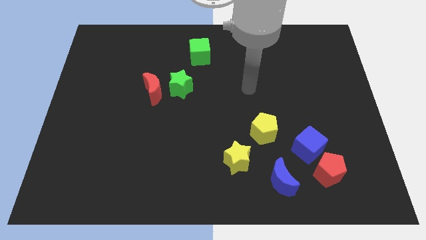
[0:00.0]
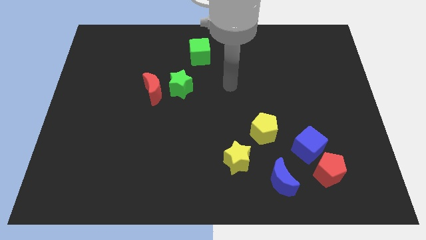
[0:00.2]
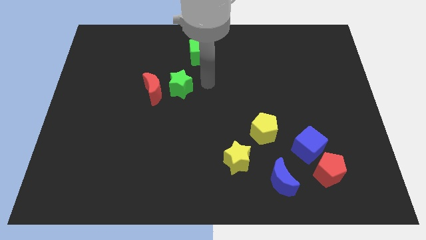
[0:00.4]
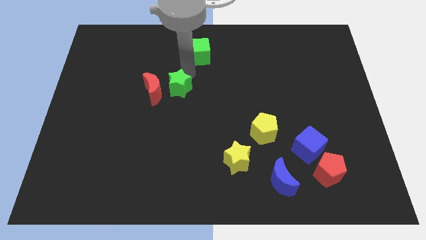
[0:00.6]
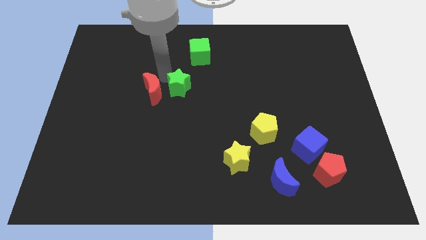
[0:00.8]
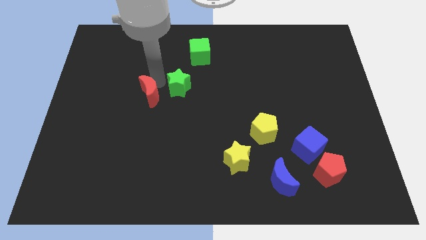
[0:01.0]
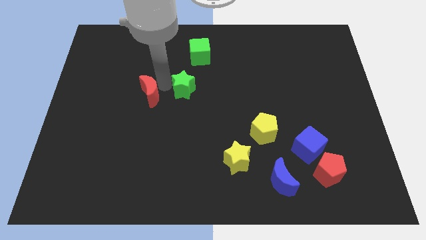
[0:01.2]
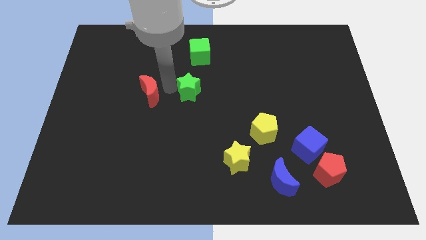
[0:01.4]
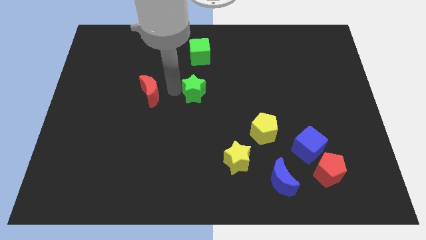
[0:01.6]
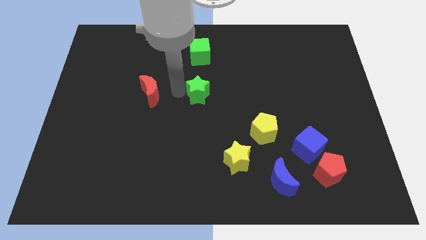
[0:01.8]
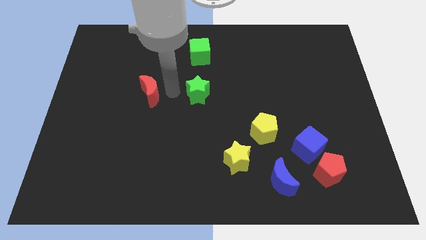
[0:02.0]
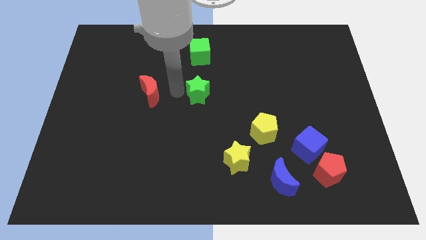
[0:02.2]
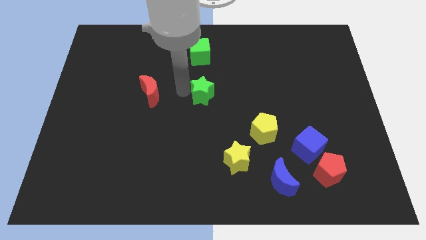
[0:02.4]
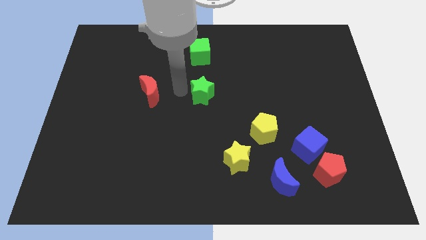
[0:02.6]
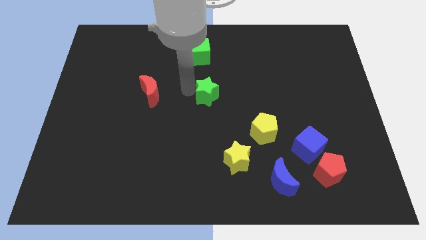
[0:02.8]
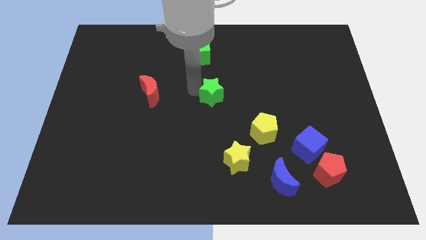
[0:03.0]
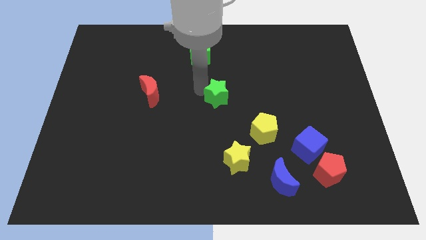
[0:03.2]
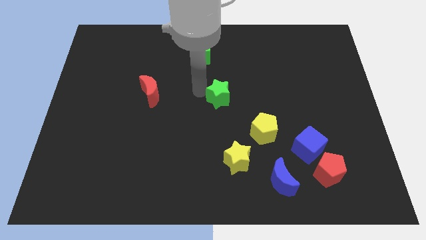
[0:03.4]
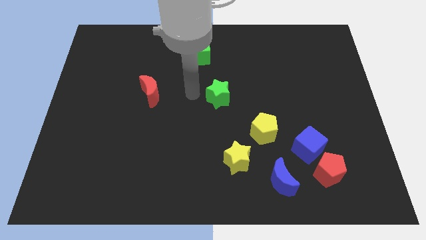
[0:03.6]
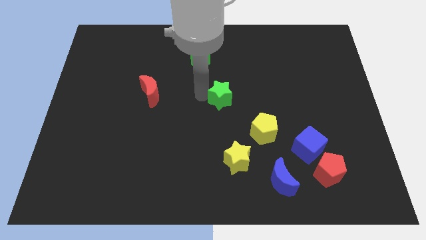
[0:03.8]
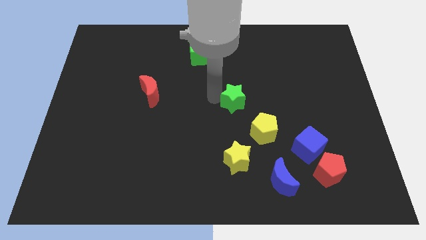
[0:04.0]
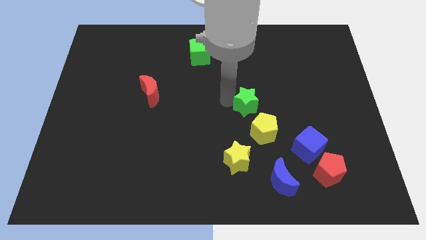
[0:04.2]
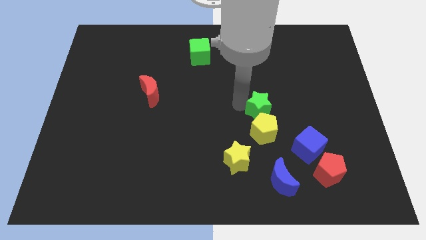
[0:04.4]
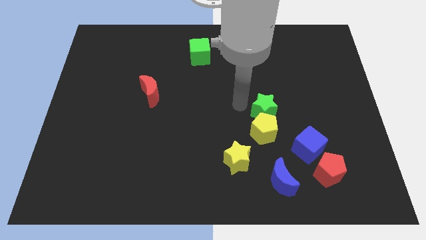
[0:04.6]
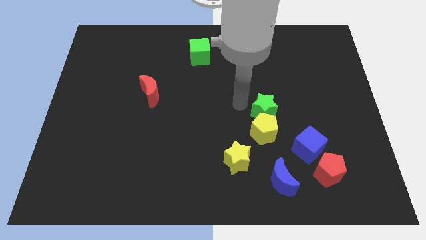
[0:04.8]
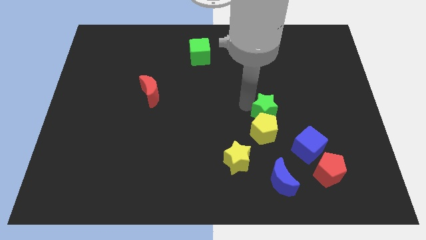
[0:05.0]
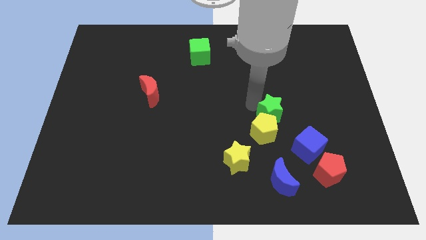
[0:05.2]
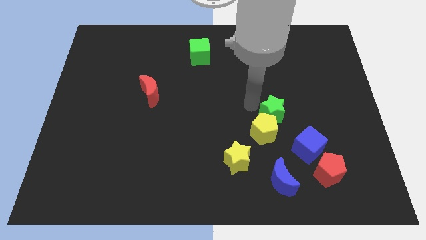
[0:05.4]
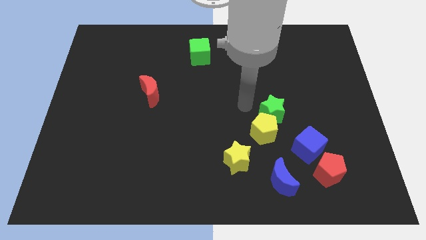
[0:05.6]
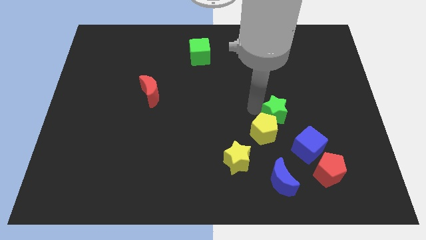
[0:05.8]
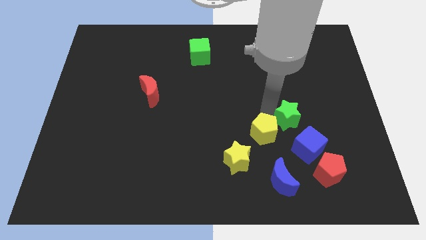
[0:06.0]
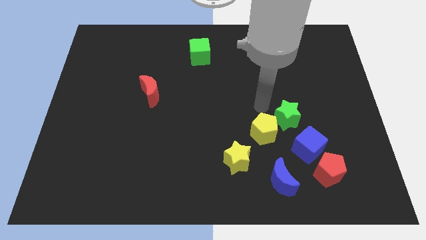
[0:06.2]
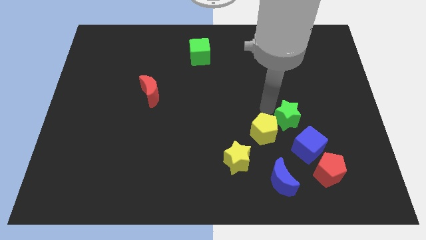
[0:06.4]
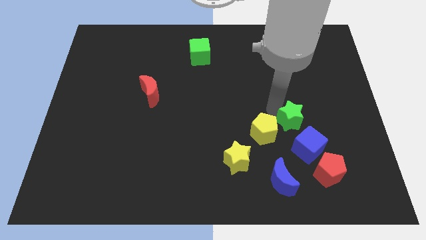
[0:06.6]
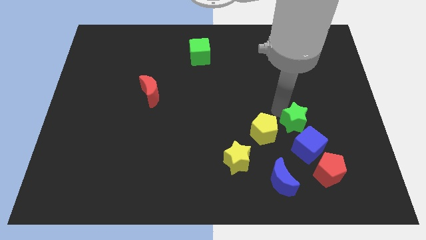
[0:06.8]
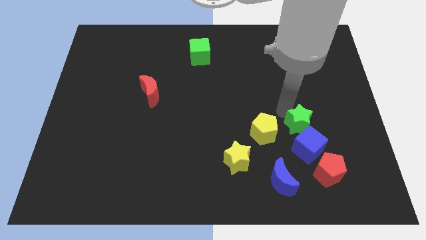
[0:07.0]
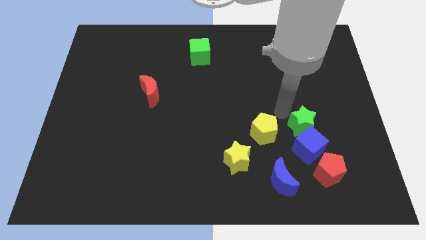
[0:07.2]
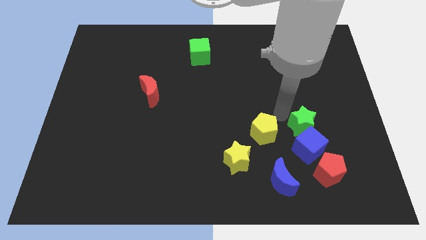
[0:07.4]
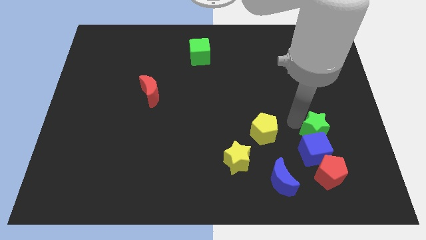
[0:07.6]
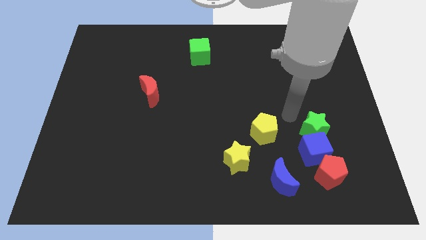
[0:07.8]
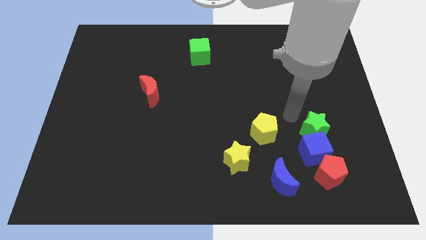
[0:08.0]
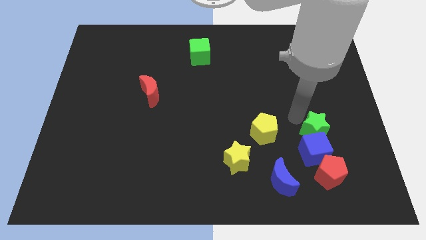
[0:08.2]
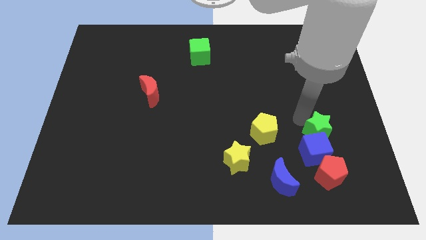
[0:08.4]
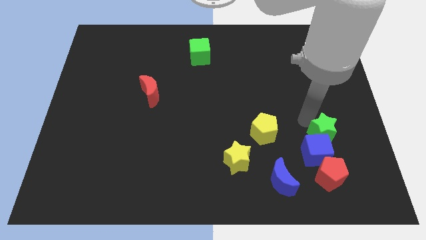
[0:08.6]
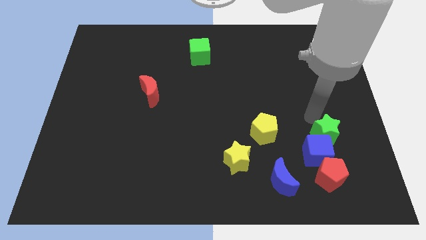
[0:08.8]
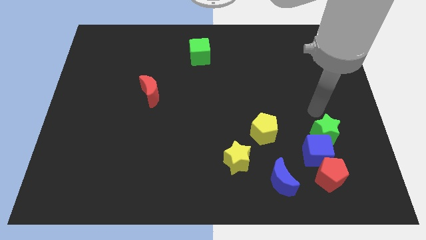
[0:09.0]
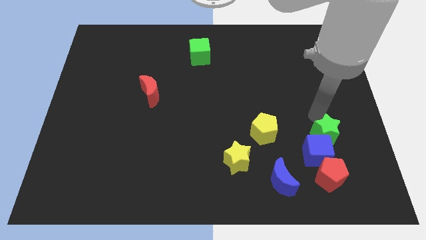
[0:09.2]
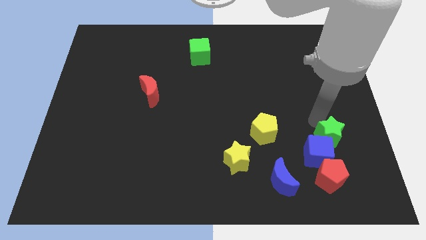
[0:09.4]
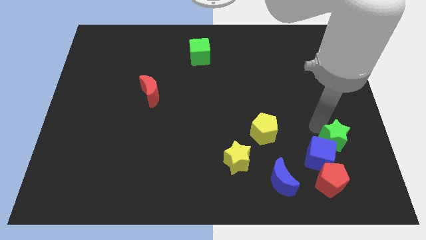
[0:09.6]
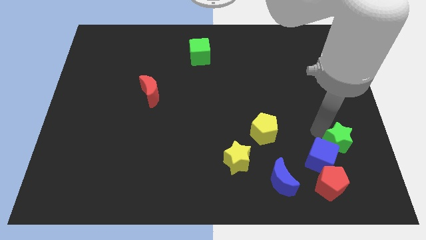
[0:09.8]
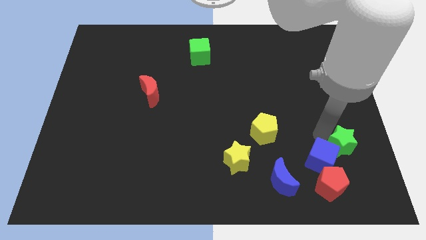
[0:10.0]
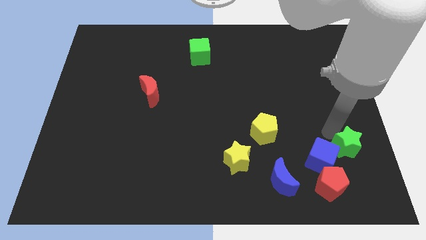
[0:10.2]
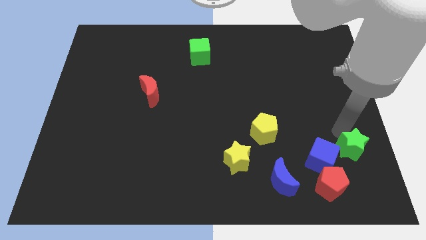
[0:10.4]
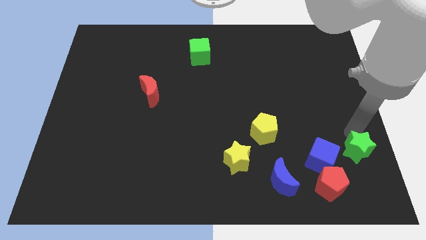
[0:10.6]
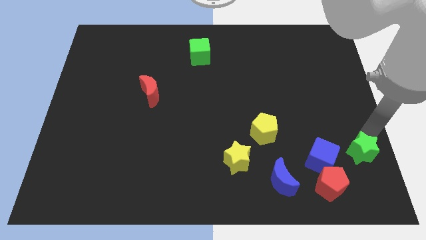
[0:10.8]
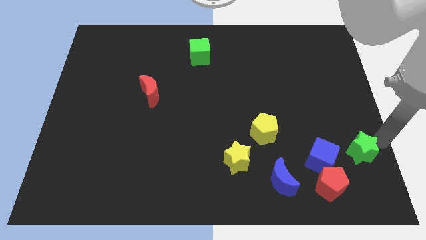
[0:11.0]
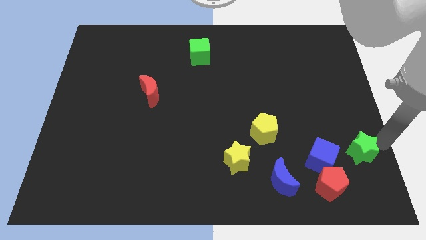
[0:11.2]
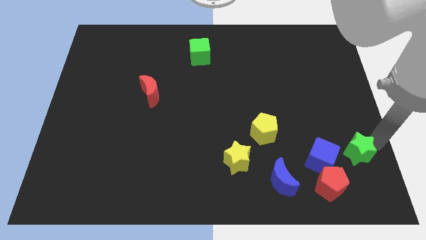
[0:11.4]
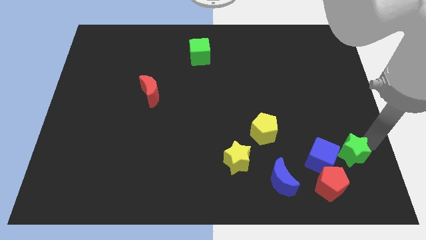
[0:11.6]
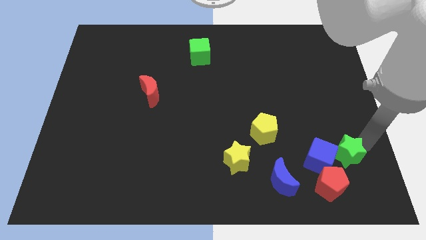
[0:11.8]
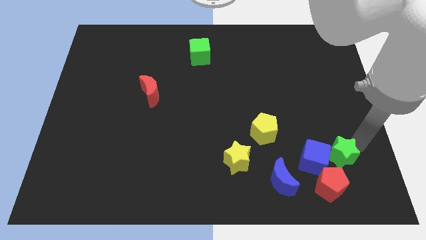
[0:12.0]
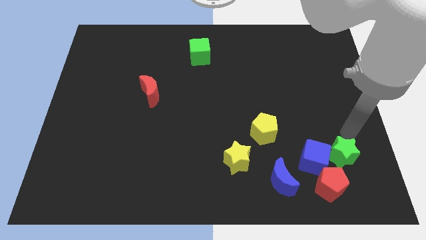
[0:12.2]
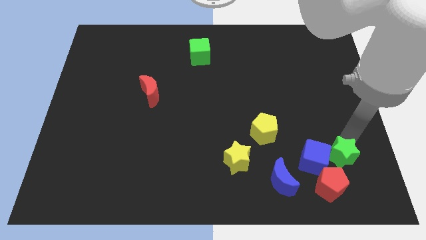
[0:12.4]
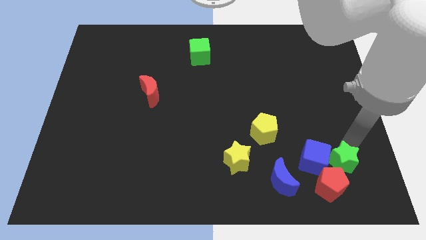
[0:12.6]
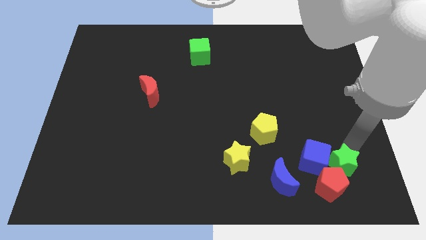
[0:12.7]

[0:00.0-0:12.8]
push the green star close to the red pentagon

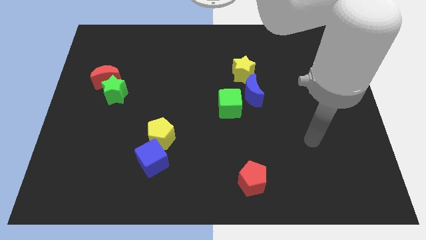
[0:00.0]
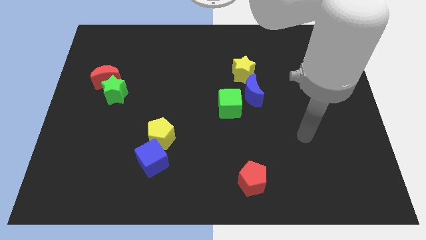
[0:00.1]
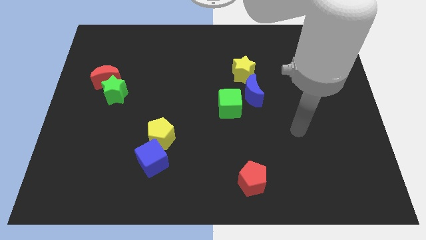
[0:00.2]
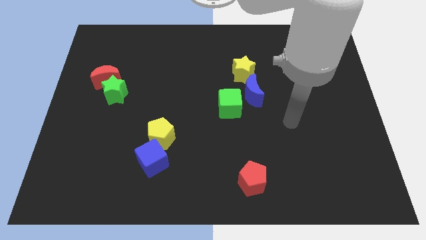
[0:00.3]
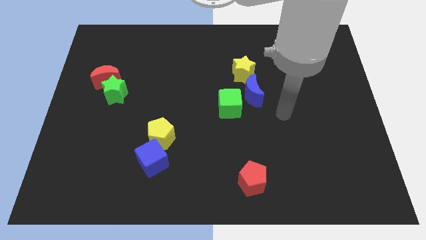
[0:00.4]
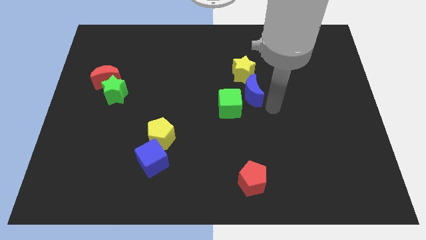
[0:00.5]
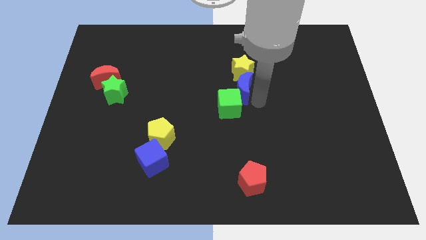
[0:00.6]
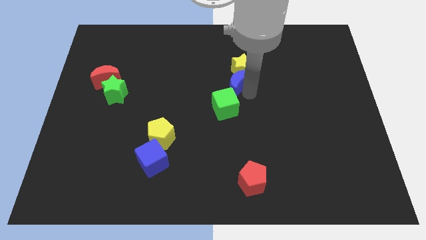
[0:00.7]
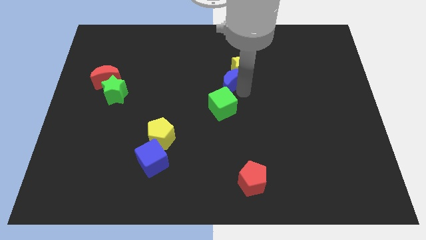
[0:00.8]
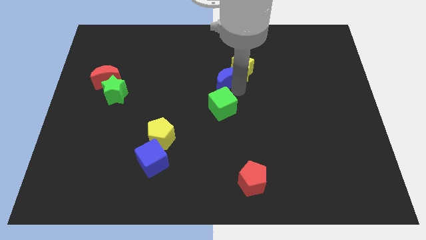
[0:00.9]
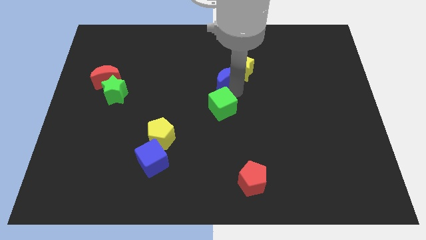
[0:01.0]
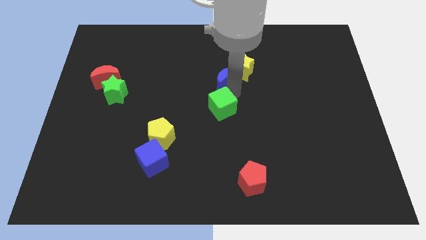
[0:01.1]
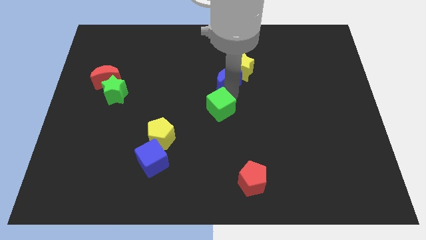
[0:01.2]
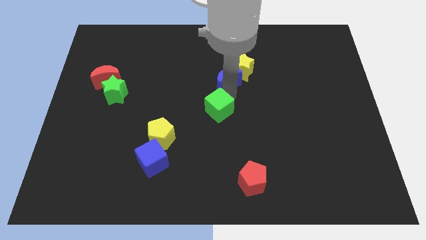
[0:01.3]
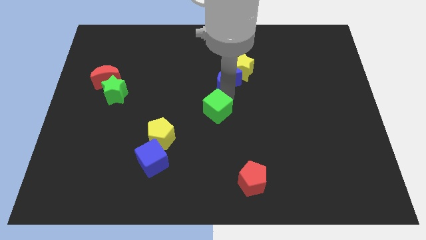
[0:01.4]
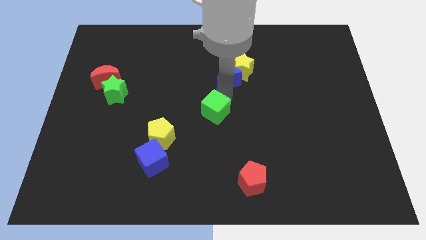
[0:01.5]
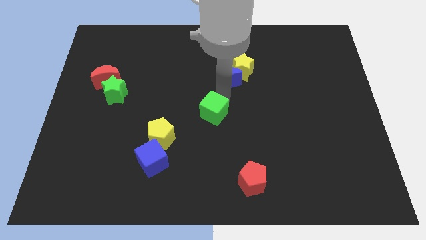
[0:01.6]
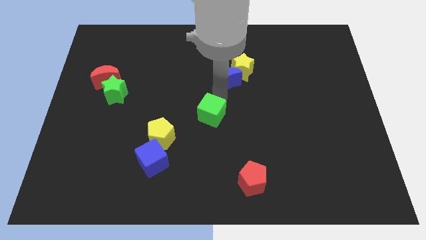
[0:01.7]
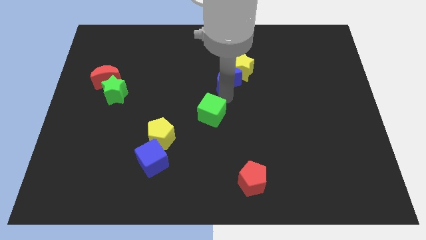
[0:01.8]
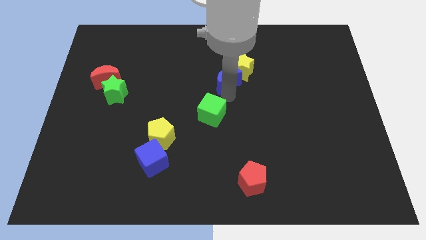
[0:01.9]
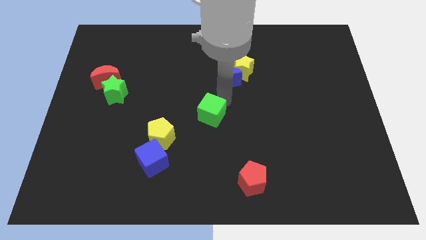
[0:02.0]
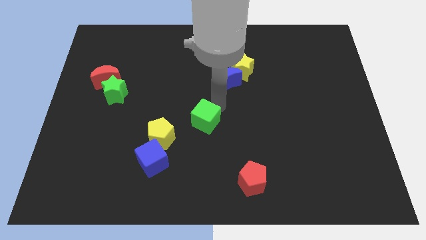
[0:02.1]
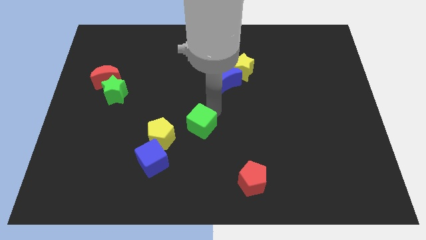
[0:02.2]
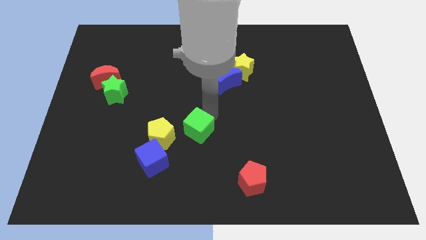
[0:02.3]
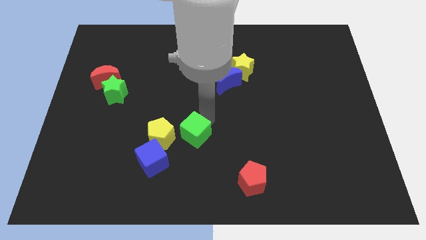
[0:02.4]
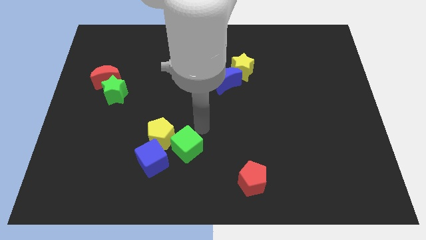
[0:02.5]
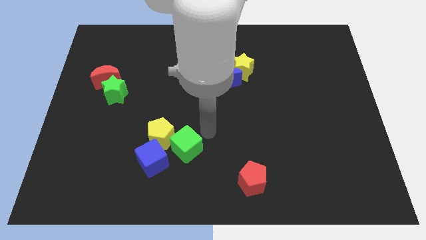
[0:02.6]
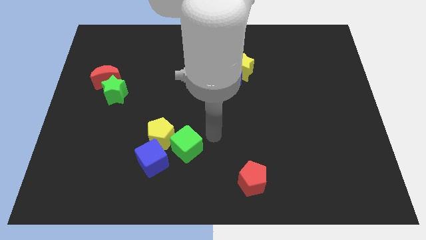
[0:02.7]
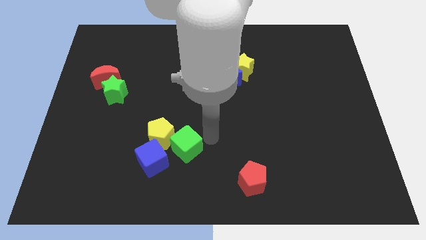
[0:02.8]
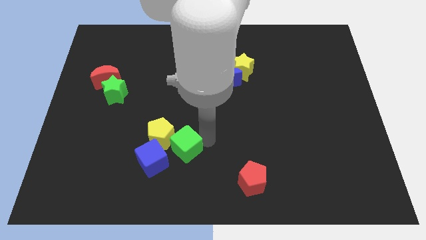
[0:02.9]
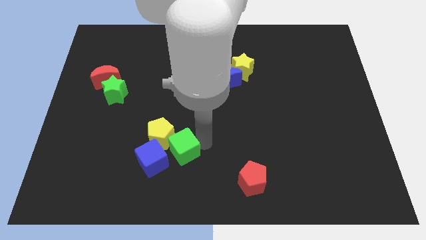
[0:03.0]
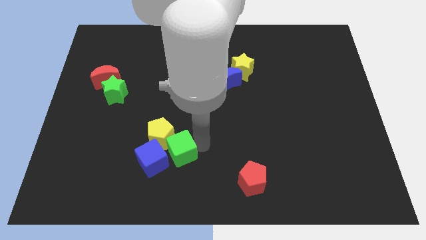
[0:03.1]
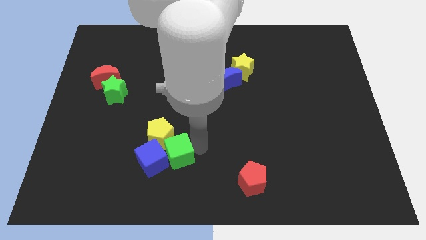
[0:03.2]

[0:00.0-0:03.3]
slide the green cube close to the blue cube
